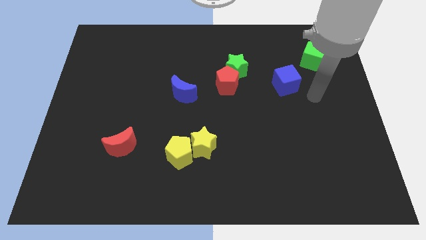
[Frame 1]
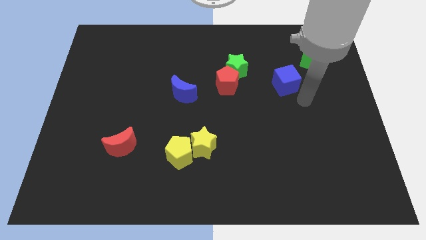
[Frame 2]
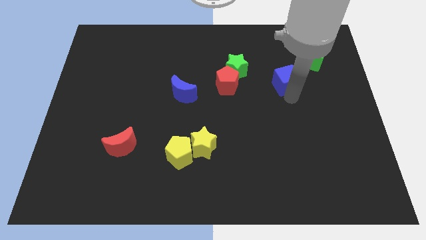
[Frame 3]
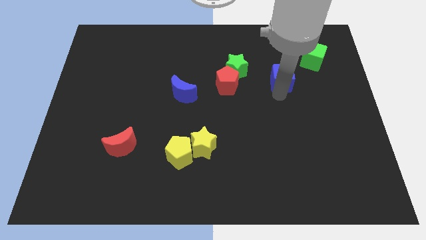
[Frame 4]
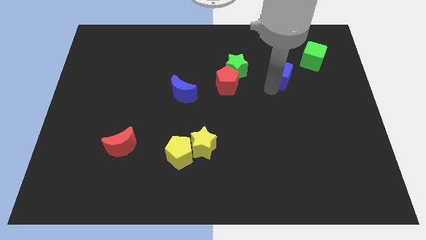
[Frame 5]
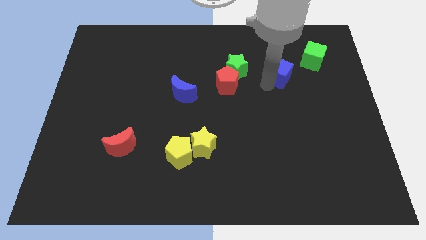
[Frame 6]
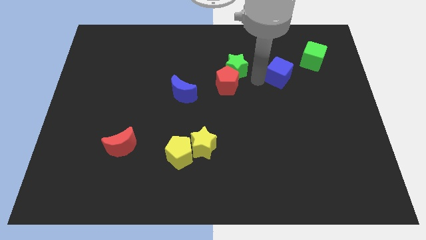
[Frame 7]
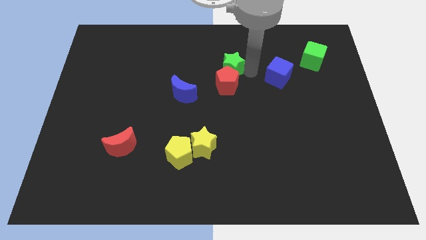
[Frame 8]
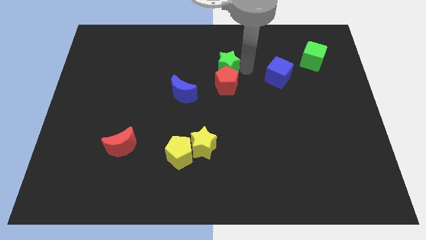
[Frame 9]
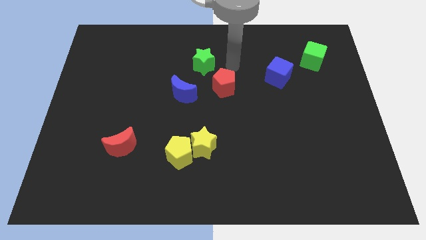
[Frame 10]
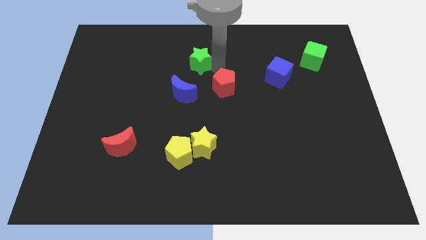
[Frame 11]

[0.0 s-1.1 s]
separate the red pentagon from the green star

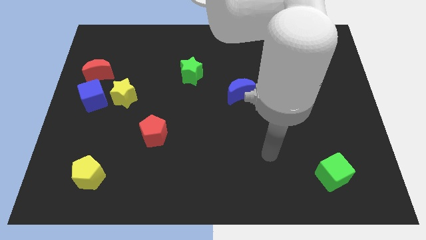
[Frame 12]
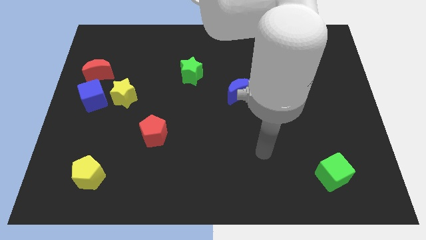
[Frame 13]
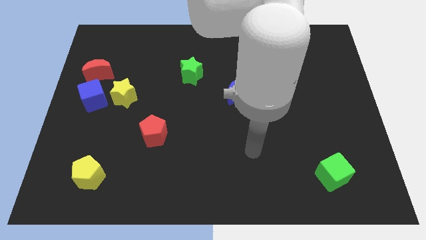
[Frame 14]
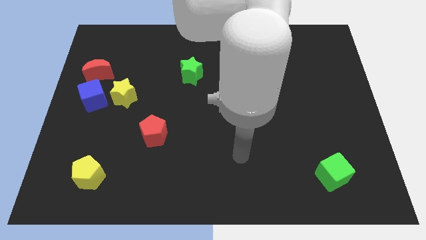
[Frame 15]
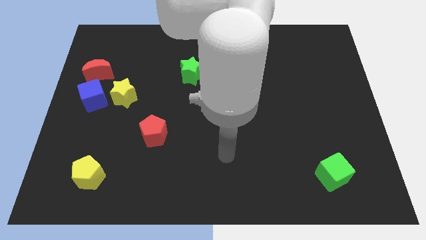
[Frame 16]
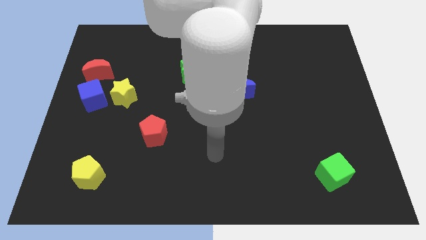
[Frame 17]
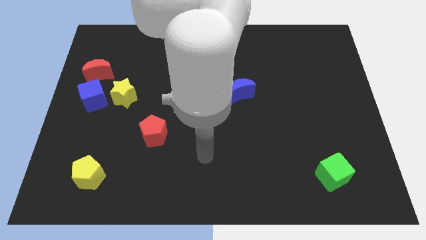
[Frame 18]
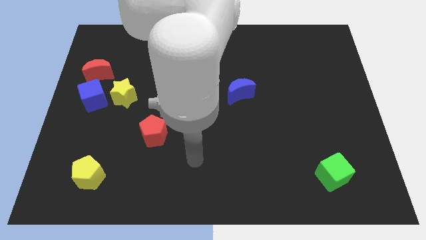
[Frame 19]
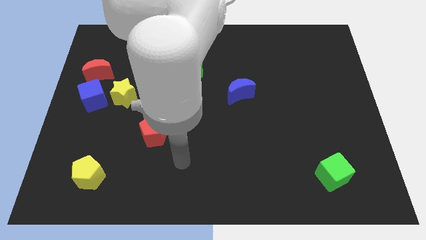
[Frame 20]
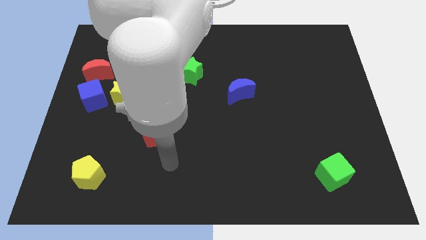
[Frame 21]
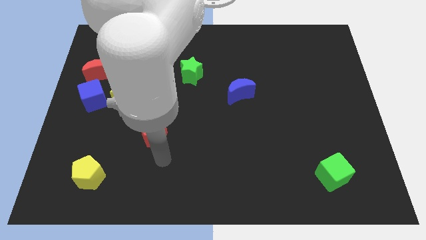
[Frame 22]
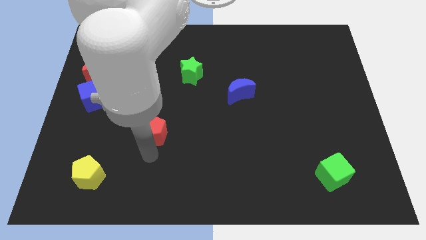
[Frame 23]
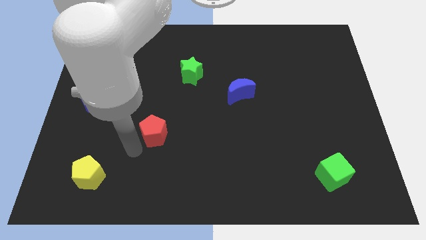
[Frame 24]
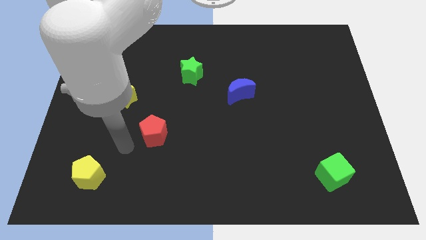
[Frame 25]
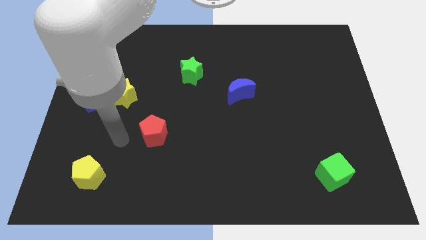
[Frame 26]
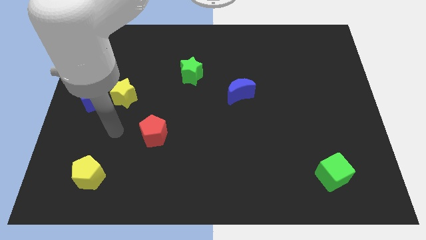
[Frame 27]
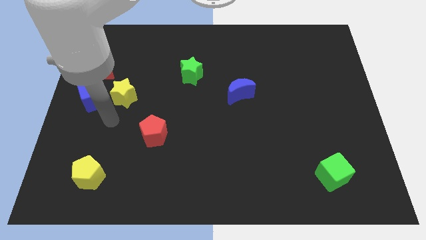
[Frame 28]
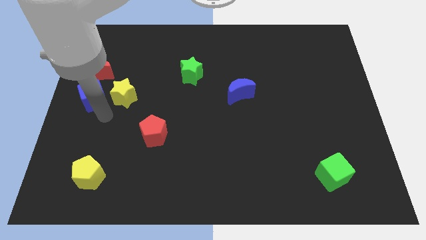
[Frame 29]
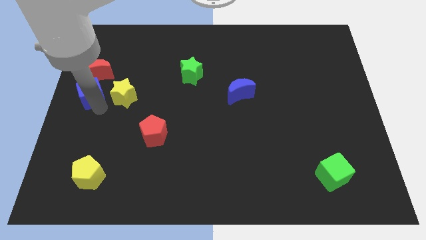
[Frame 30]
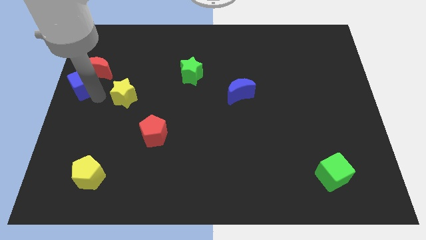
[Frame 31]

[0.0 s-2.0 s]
pull the yellow star apart from the blue cube

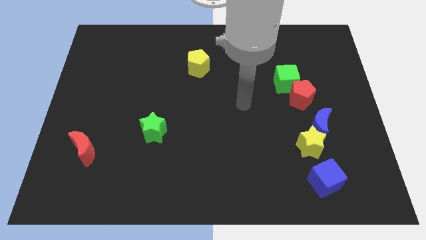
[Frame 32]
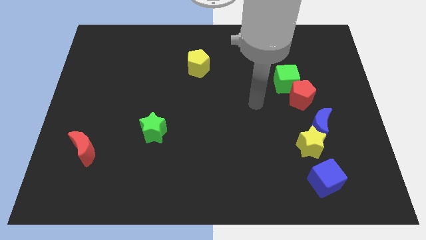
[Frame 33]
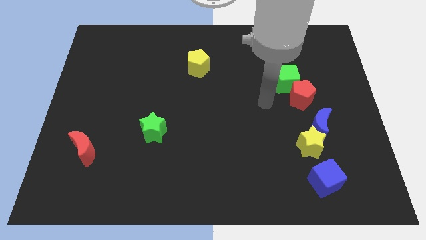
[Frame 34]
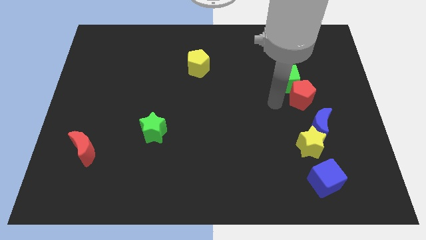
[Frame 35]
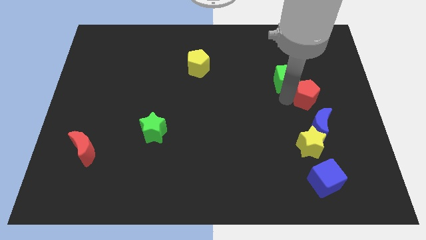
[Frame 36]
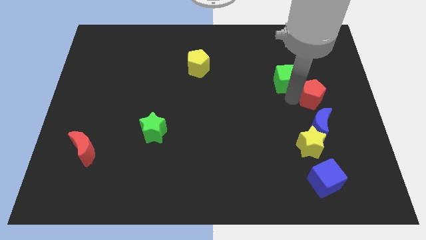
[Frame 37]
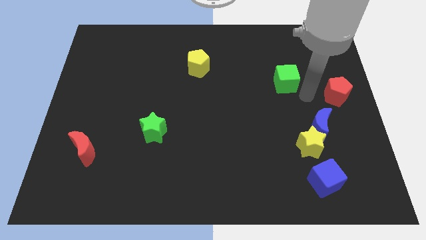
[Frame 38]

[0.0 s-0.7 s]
separate the green cube from the red pentagon

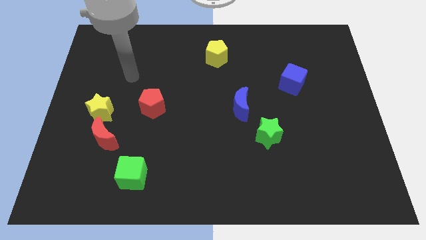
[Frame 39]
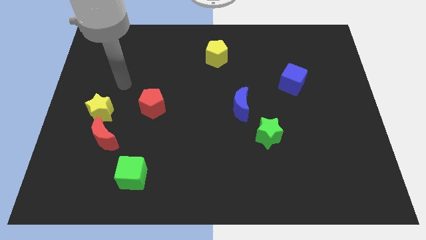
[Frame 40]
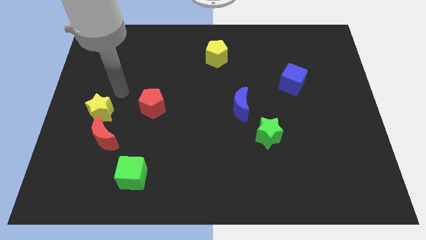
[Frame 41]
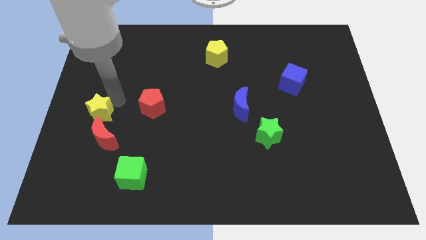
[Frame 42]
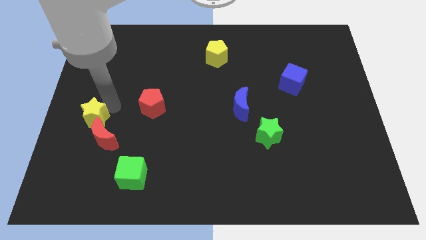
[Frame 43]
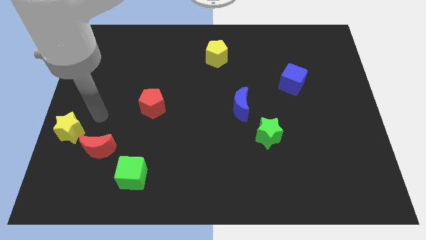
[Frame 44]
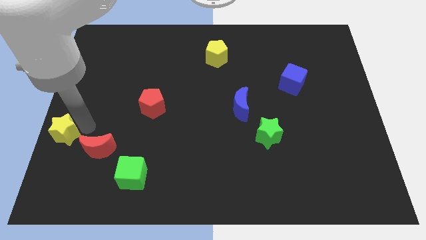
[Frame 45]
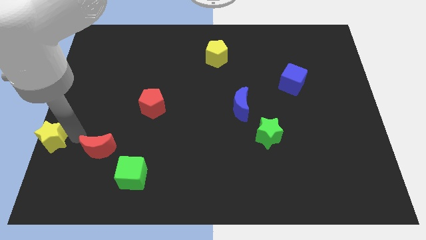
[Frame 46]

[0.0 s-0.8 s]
pull the red moon apart from the yellow star

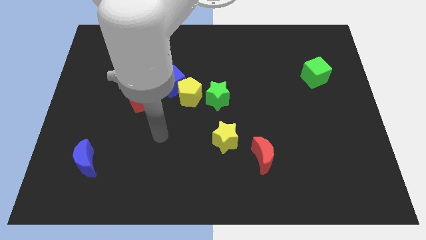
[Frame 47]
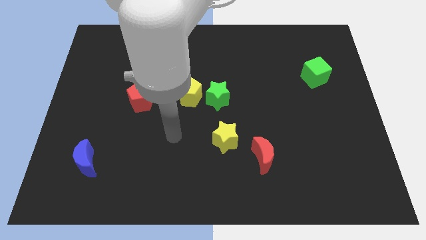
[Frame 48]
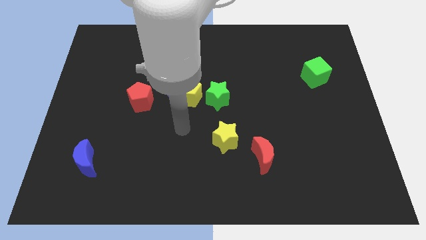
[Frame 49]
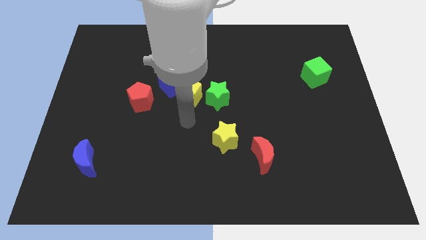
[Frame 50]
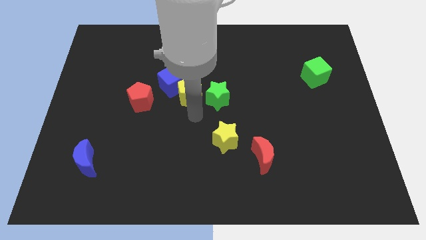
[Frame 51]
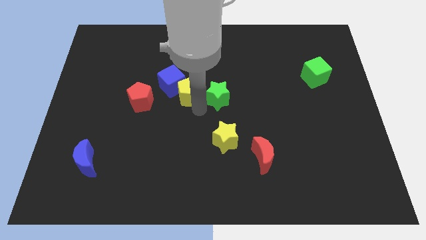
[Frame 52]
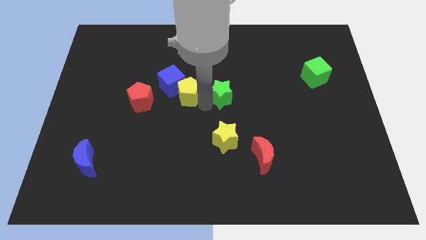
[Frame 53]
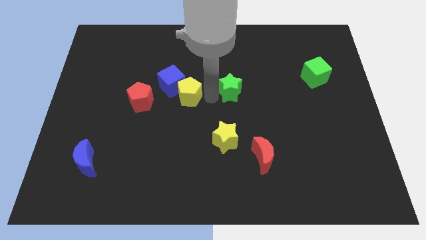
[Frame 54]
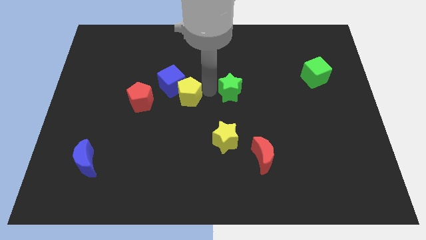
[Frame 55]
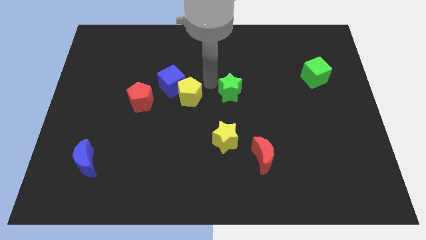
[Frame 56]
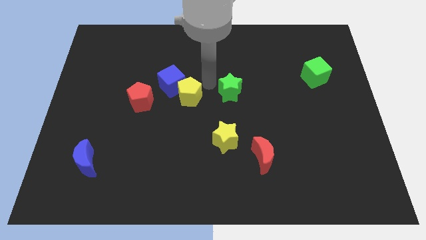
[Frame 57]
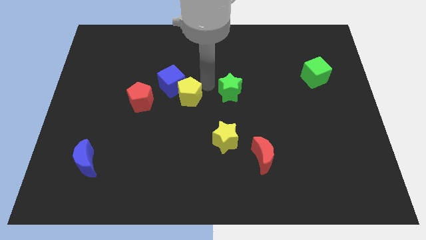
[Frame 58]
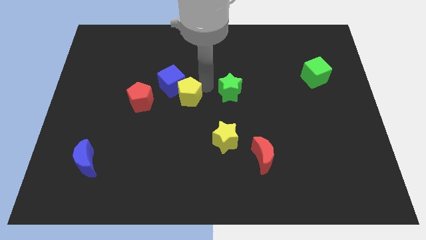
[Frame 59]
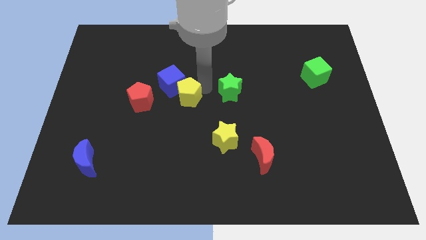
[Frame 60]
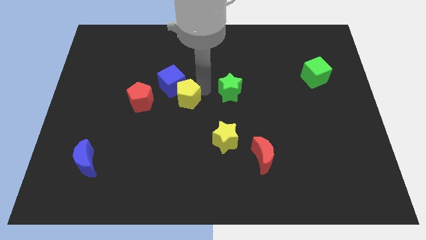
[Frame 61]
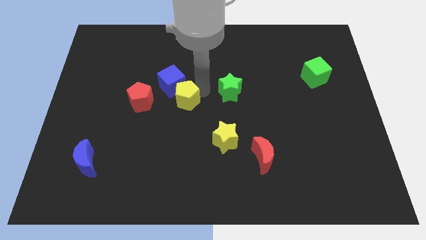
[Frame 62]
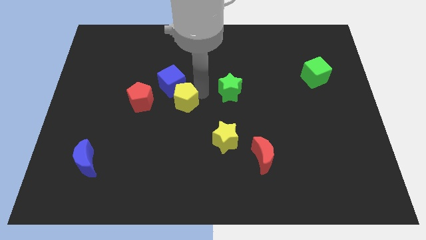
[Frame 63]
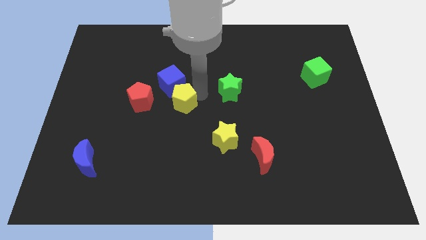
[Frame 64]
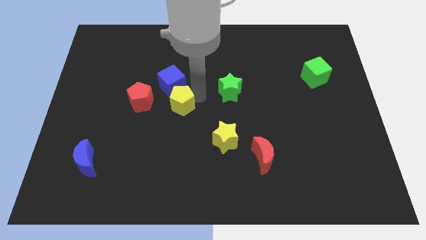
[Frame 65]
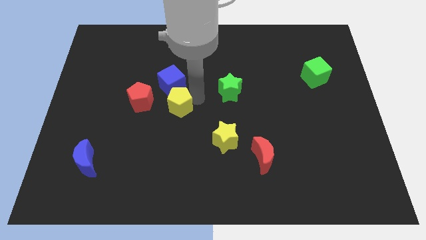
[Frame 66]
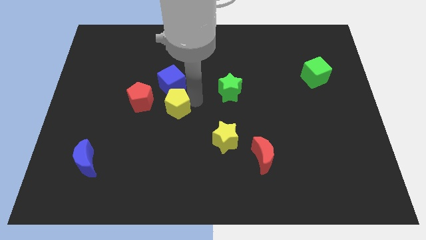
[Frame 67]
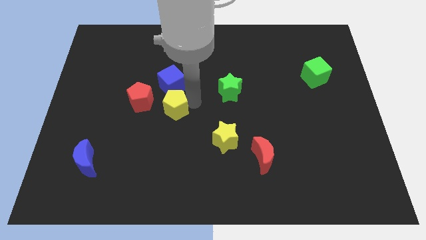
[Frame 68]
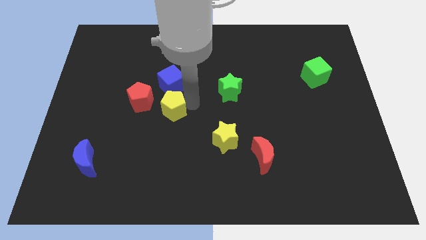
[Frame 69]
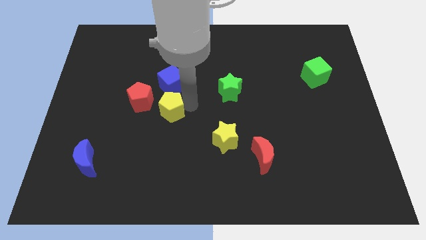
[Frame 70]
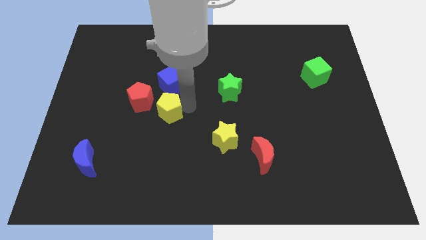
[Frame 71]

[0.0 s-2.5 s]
pull the yellow pentagon apart from the blue cube and green star

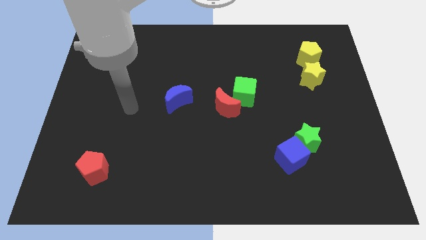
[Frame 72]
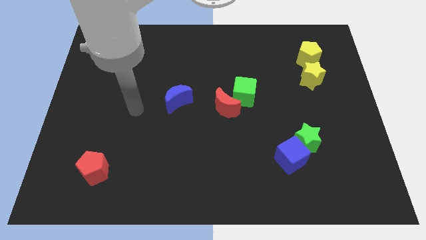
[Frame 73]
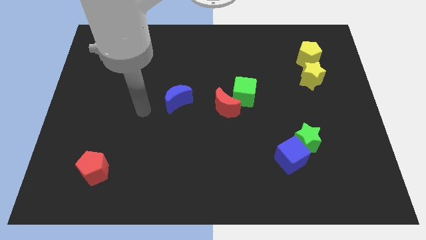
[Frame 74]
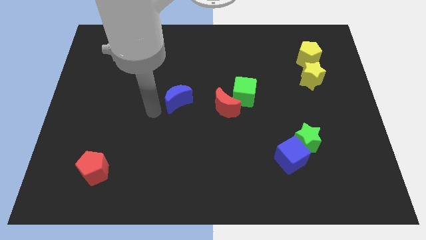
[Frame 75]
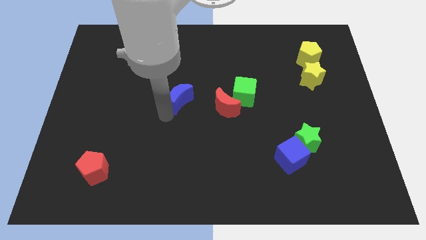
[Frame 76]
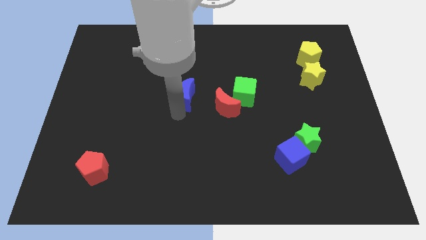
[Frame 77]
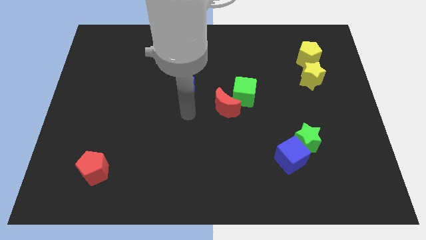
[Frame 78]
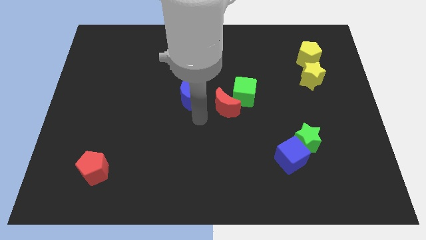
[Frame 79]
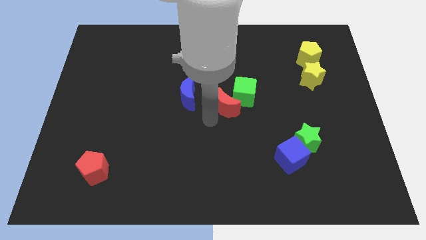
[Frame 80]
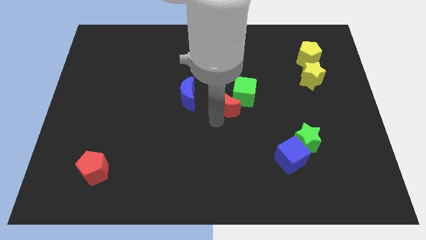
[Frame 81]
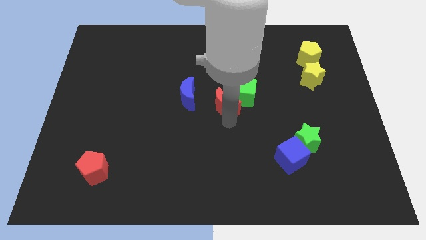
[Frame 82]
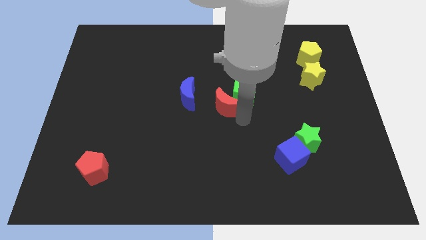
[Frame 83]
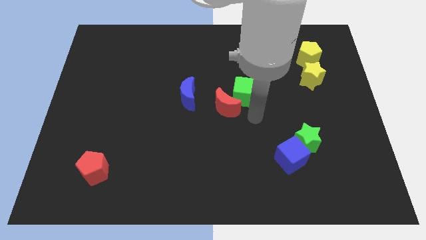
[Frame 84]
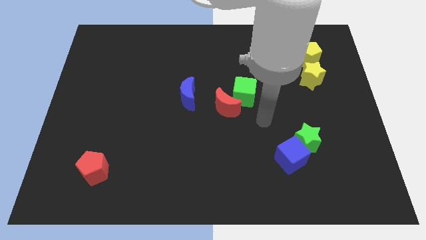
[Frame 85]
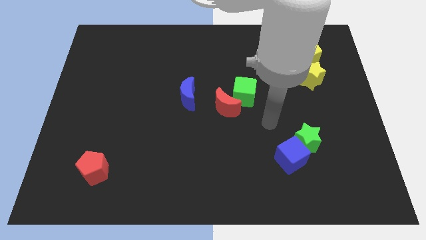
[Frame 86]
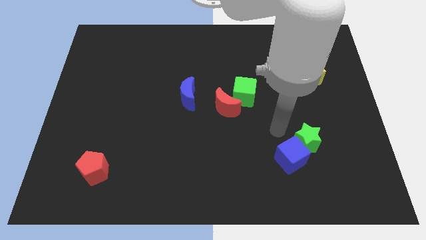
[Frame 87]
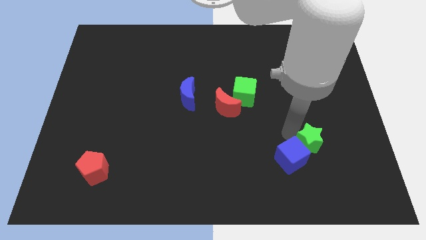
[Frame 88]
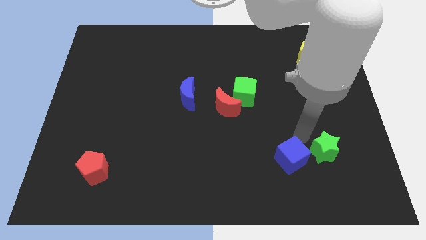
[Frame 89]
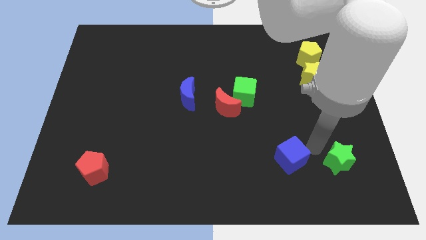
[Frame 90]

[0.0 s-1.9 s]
pull the blue cube apart from the green star

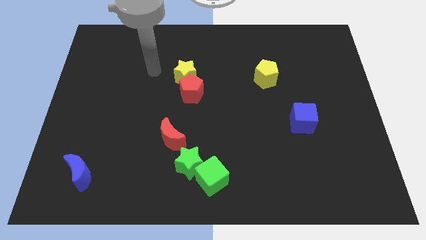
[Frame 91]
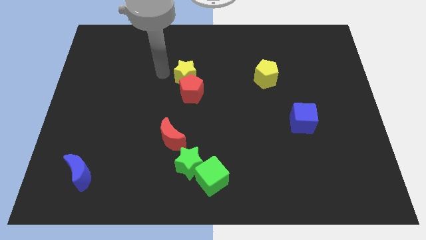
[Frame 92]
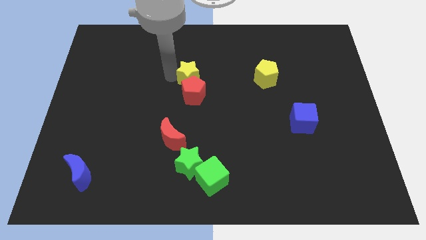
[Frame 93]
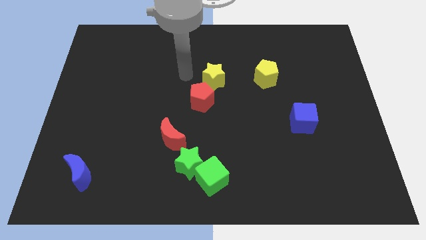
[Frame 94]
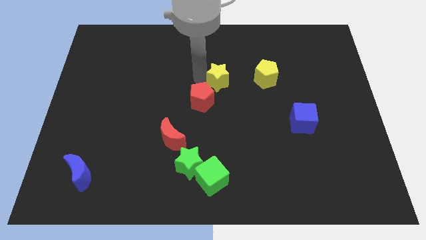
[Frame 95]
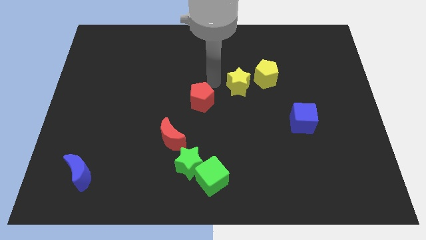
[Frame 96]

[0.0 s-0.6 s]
separate the red pentagon from the yellow star
